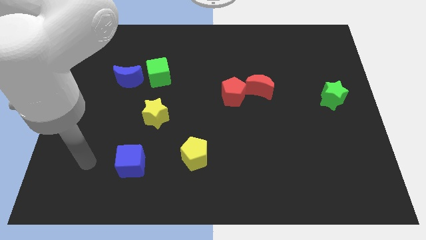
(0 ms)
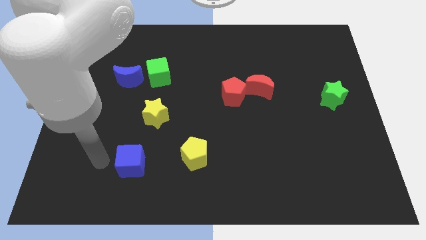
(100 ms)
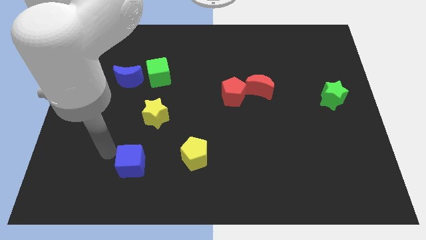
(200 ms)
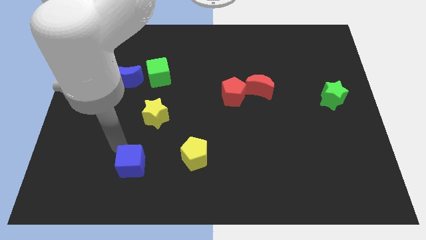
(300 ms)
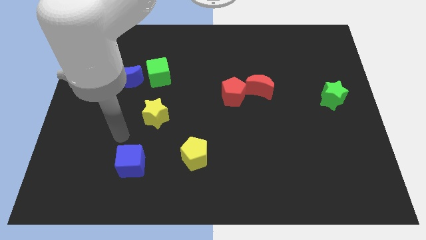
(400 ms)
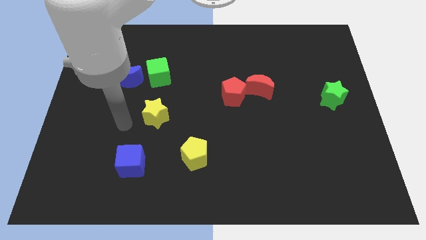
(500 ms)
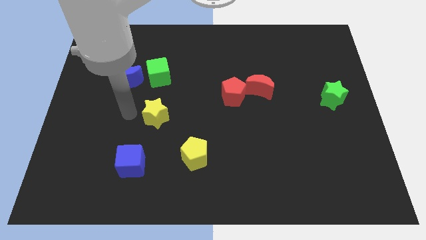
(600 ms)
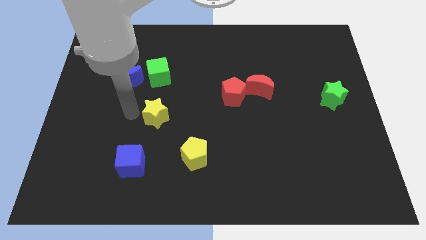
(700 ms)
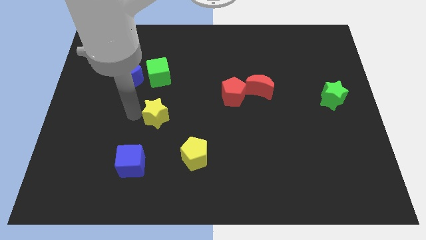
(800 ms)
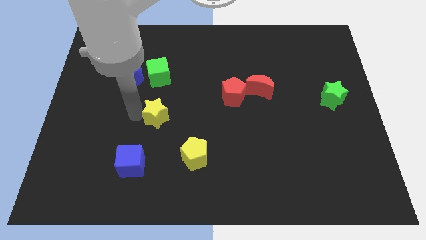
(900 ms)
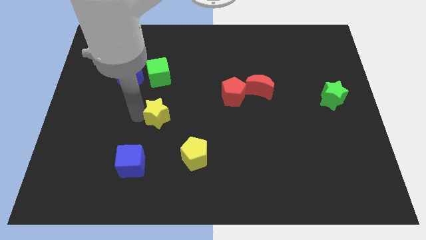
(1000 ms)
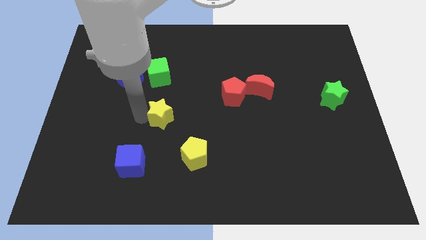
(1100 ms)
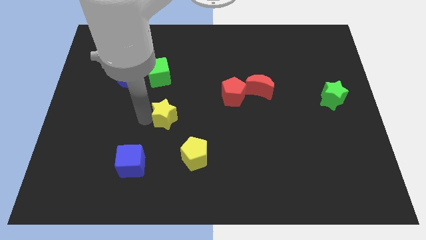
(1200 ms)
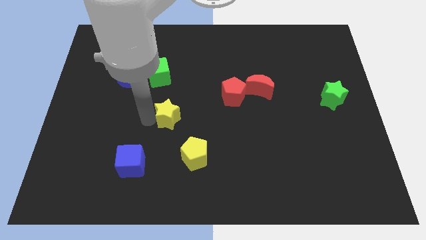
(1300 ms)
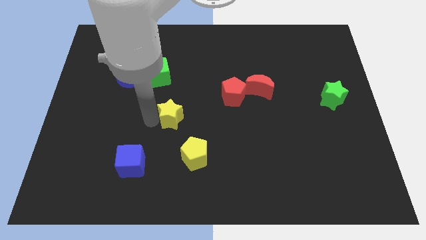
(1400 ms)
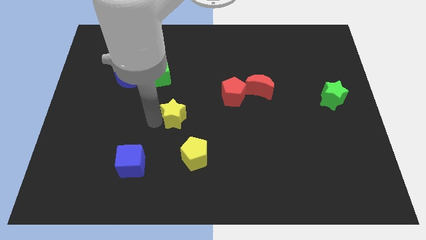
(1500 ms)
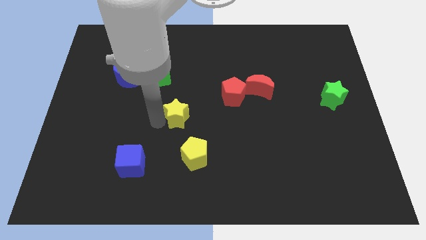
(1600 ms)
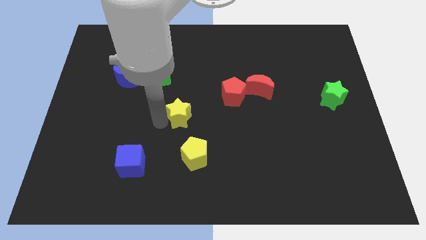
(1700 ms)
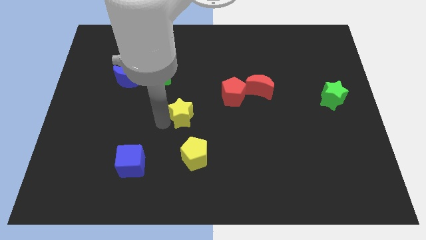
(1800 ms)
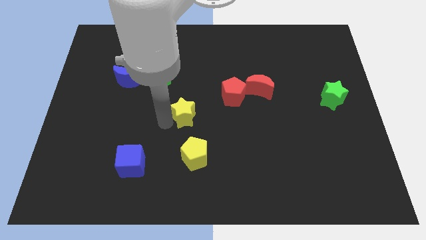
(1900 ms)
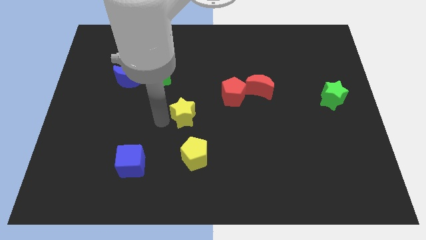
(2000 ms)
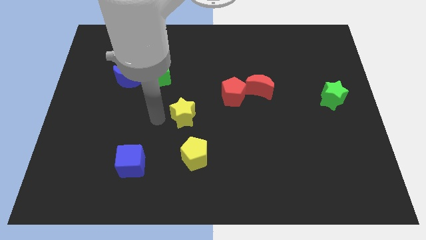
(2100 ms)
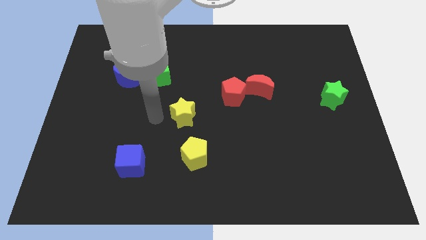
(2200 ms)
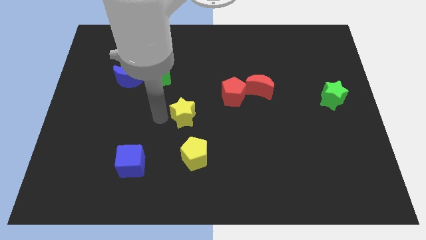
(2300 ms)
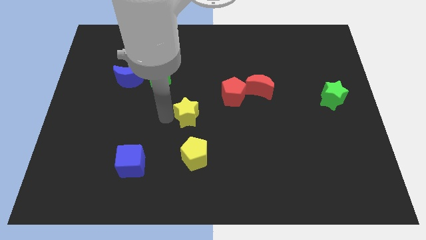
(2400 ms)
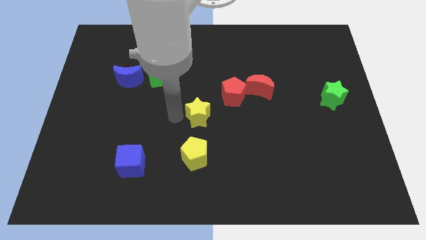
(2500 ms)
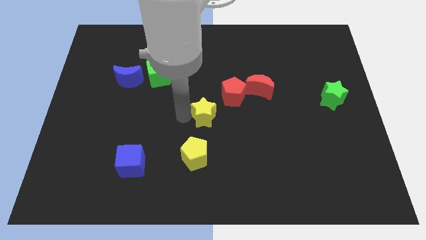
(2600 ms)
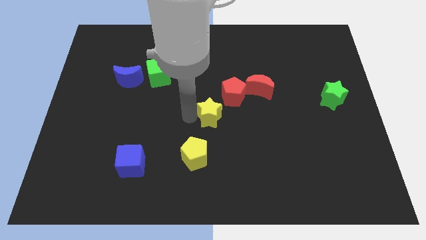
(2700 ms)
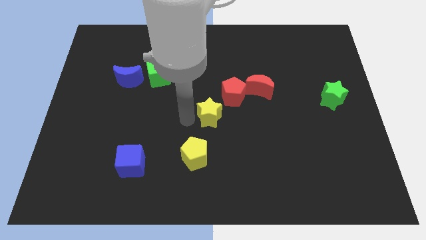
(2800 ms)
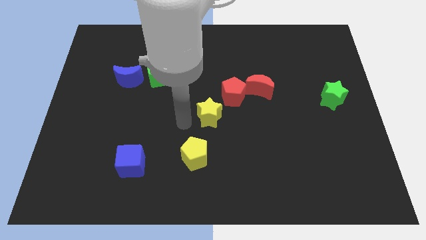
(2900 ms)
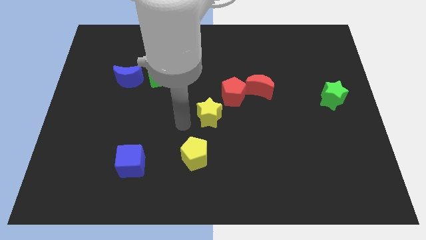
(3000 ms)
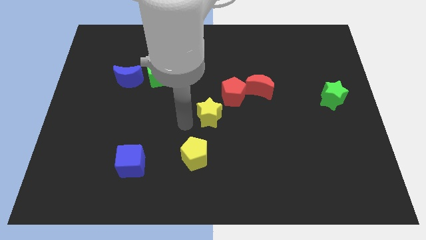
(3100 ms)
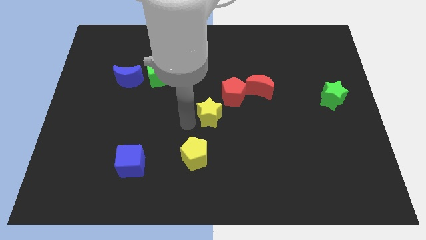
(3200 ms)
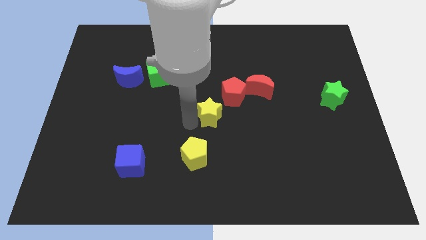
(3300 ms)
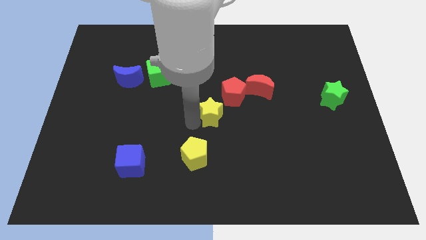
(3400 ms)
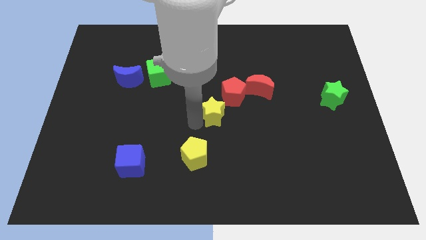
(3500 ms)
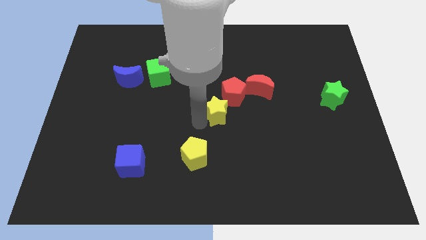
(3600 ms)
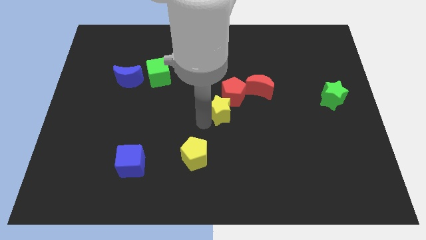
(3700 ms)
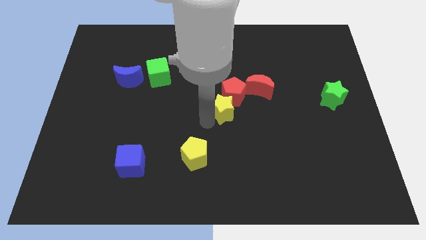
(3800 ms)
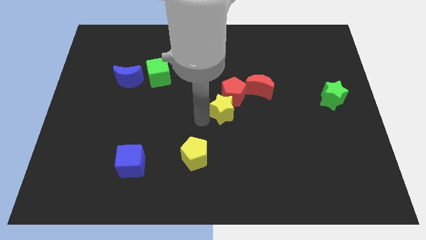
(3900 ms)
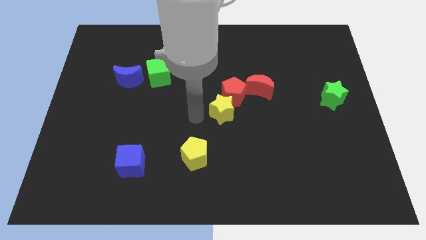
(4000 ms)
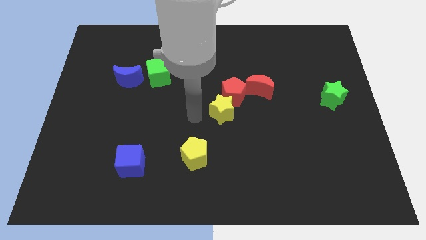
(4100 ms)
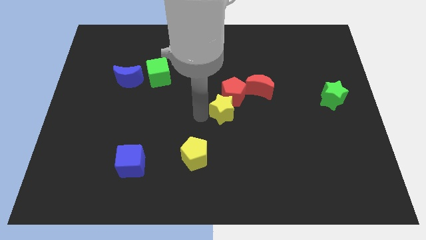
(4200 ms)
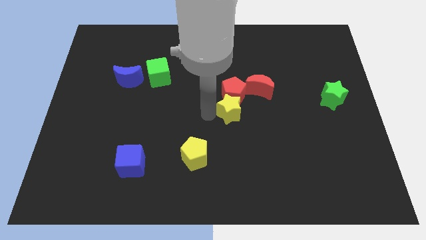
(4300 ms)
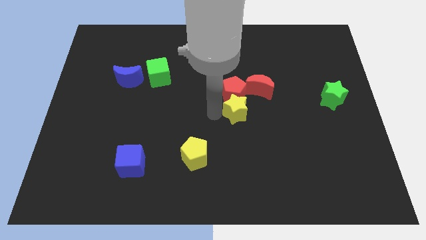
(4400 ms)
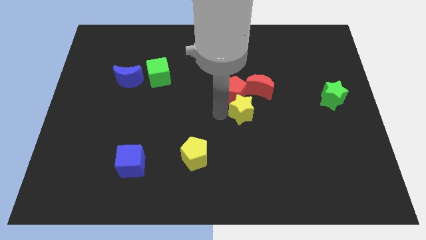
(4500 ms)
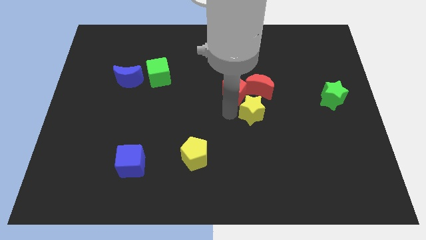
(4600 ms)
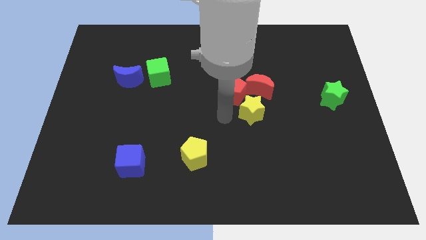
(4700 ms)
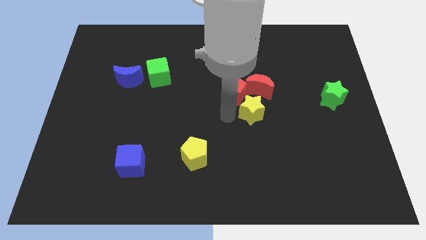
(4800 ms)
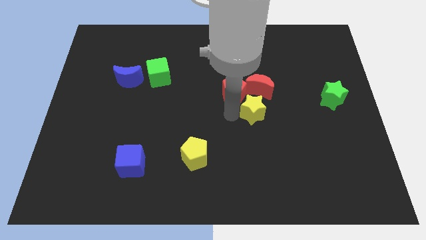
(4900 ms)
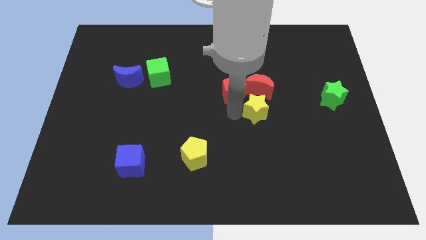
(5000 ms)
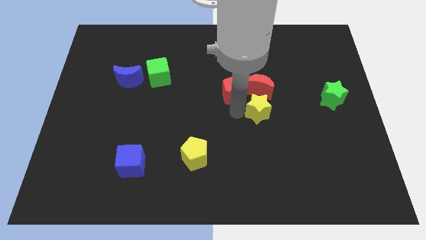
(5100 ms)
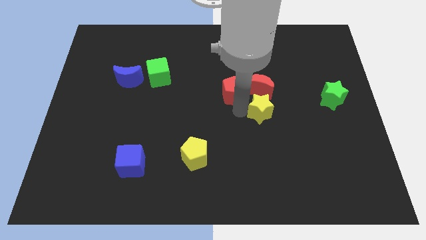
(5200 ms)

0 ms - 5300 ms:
push the yellow star to the bottom right side of the red moon

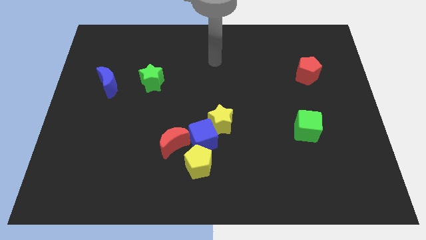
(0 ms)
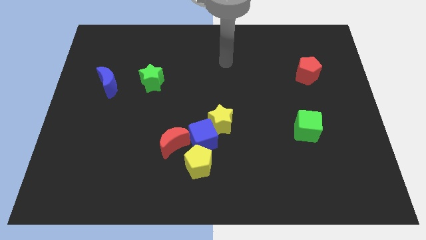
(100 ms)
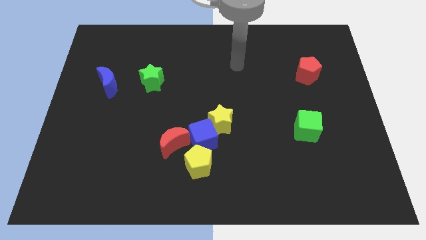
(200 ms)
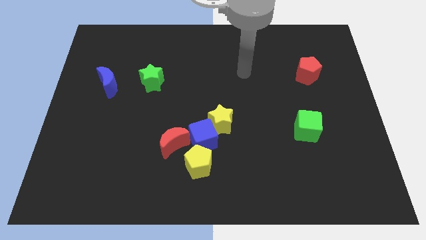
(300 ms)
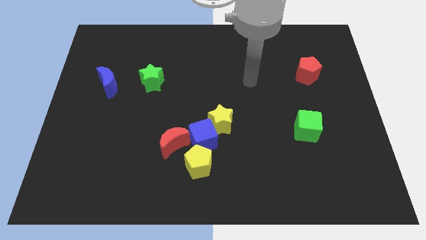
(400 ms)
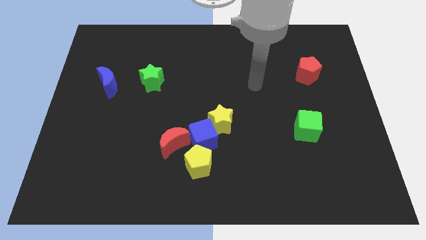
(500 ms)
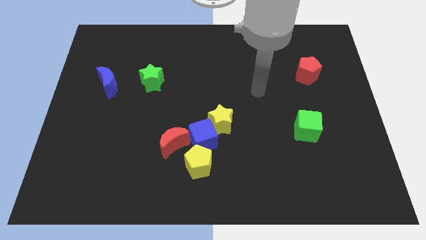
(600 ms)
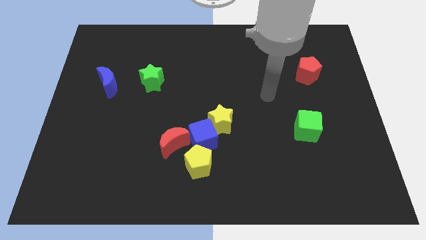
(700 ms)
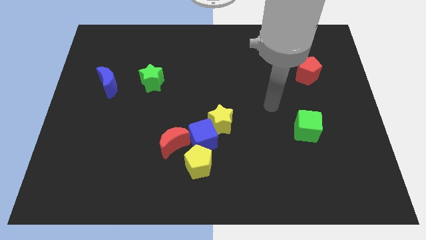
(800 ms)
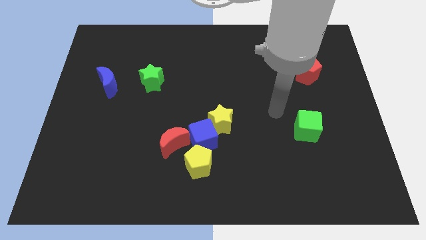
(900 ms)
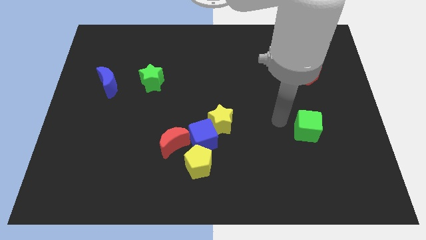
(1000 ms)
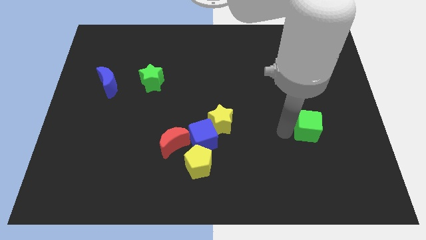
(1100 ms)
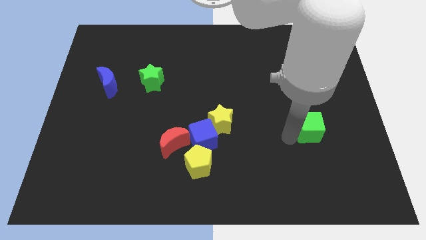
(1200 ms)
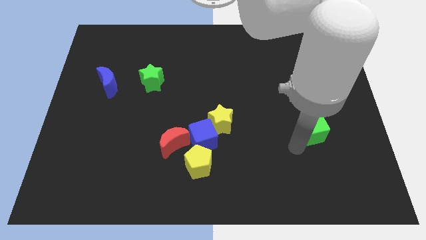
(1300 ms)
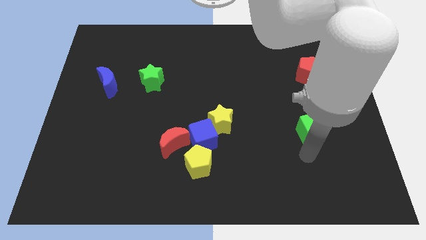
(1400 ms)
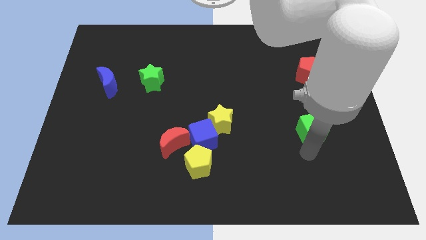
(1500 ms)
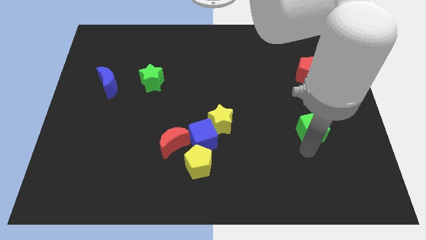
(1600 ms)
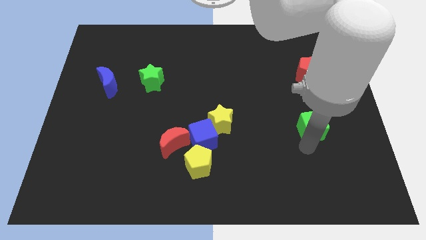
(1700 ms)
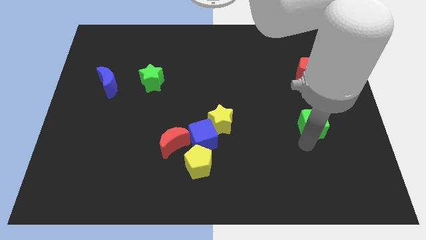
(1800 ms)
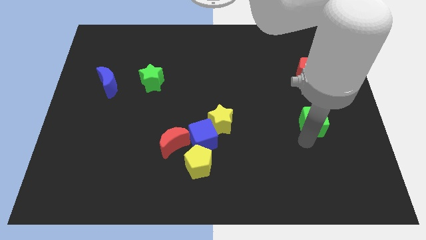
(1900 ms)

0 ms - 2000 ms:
put the green cube to the bottom of the red pentagon

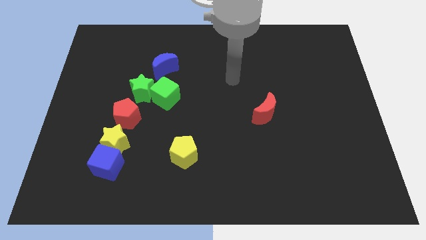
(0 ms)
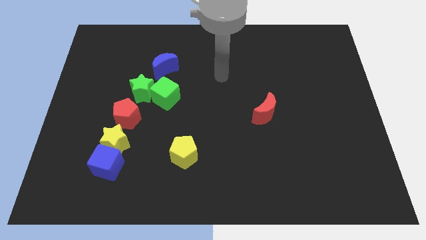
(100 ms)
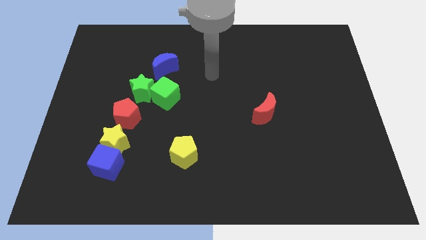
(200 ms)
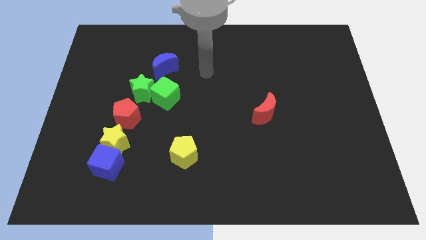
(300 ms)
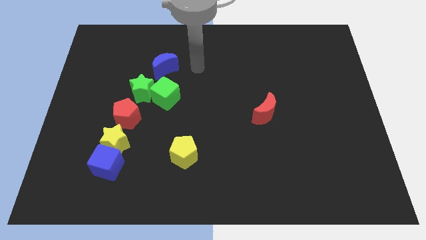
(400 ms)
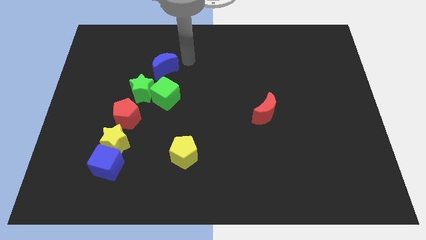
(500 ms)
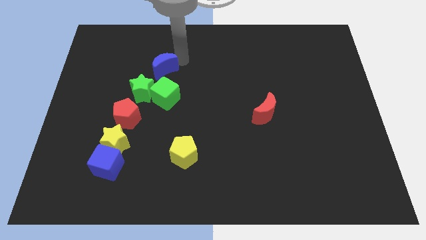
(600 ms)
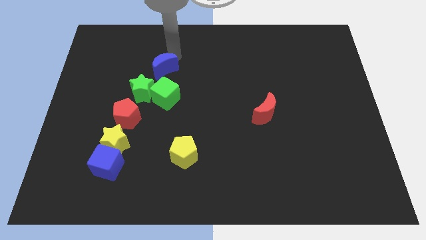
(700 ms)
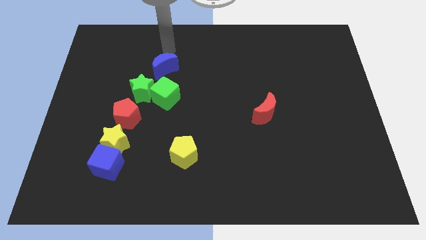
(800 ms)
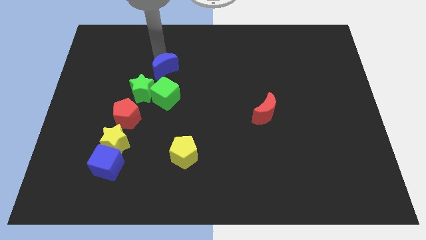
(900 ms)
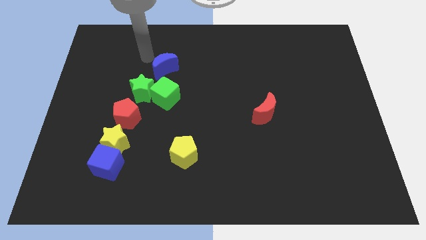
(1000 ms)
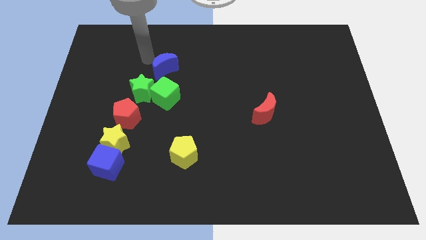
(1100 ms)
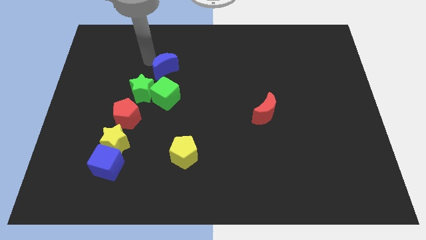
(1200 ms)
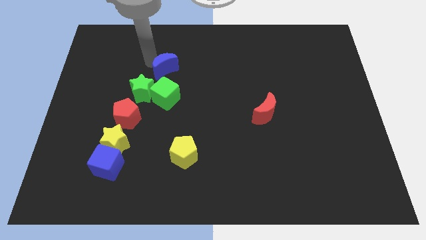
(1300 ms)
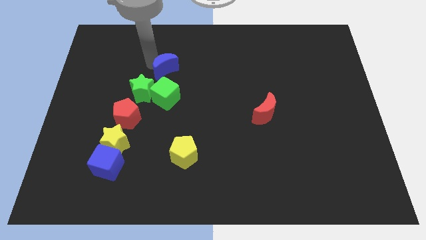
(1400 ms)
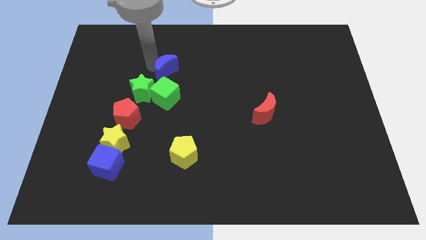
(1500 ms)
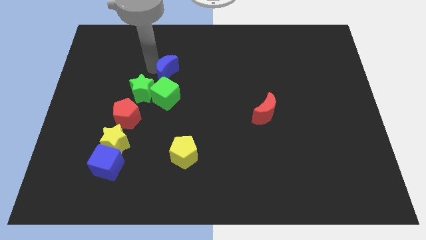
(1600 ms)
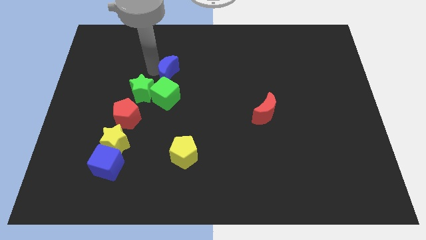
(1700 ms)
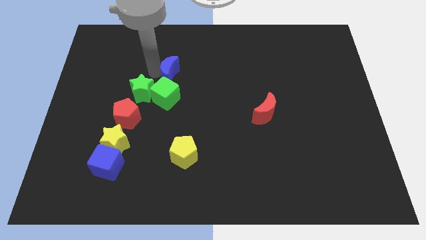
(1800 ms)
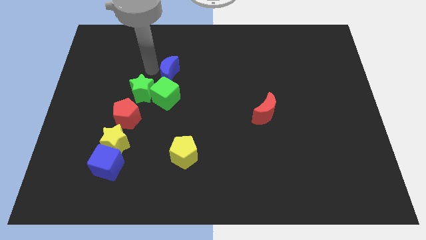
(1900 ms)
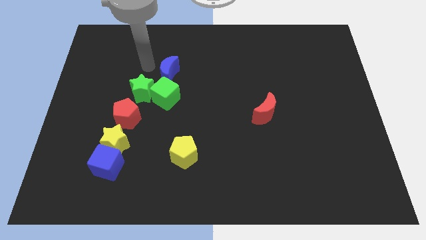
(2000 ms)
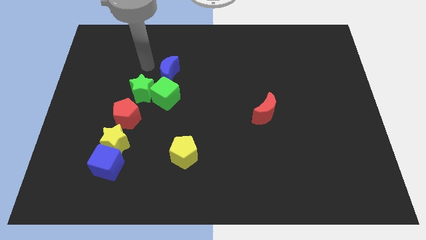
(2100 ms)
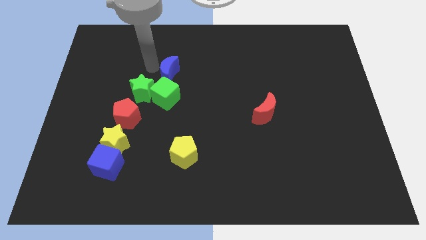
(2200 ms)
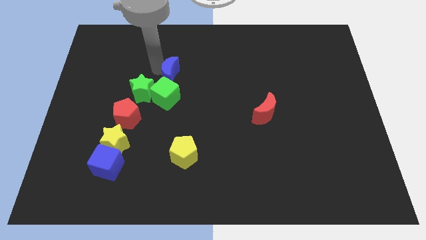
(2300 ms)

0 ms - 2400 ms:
push the blue moon to the top right side of the green cube
